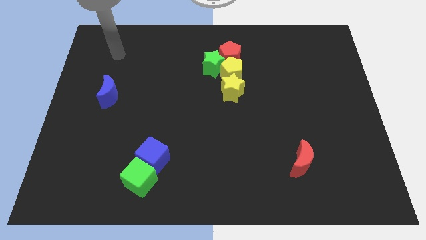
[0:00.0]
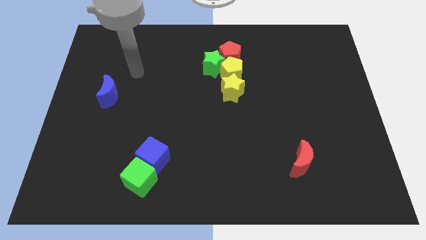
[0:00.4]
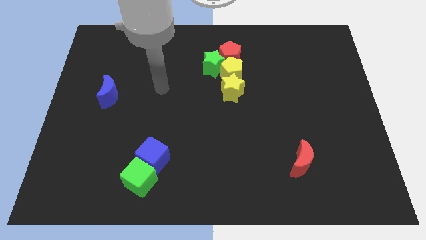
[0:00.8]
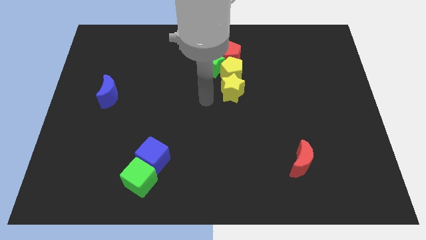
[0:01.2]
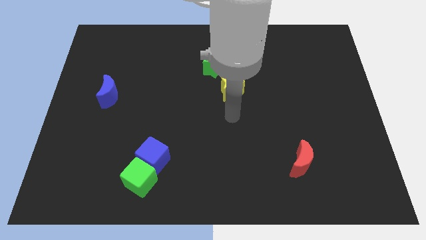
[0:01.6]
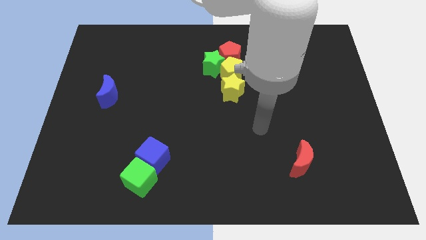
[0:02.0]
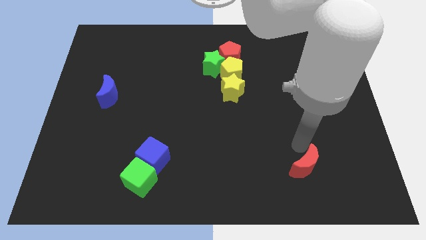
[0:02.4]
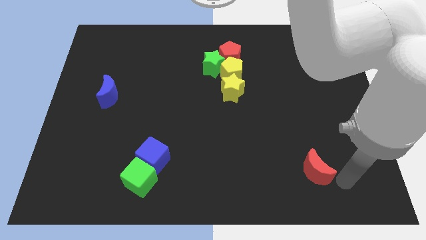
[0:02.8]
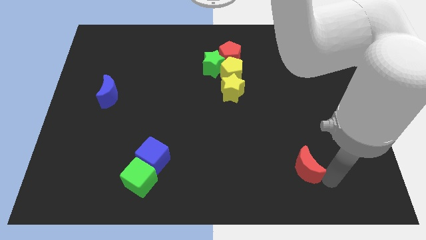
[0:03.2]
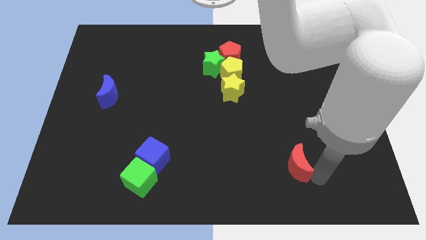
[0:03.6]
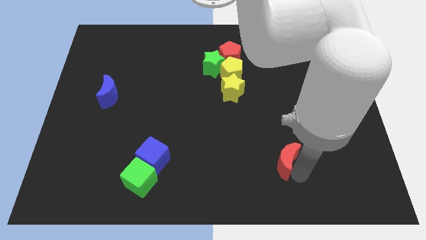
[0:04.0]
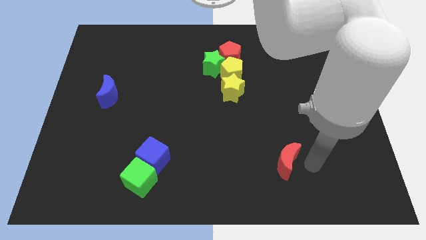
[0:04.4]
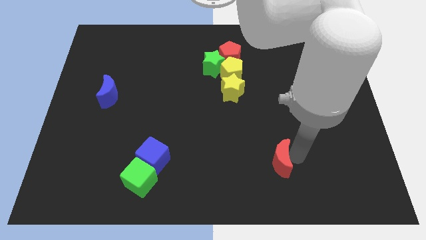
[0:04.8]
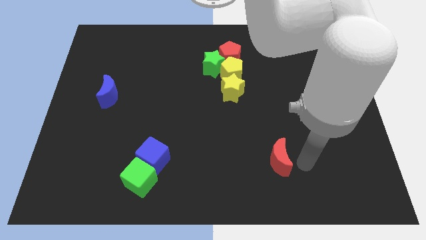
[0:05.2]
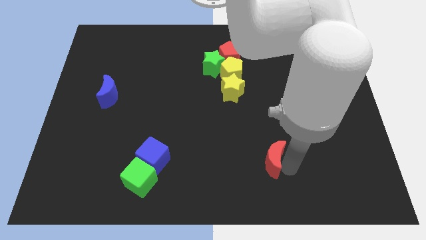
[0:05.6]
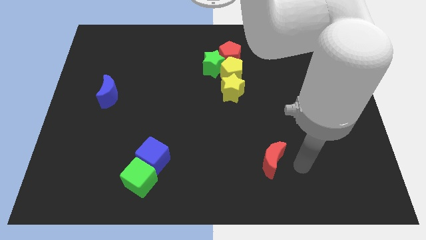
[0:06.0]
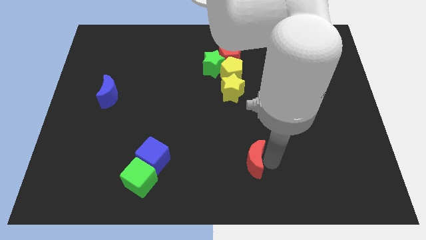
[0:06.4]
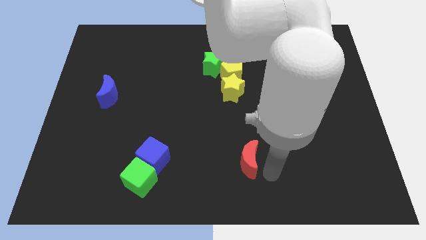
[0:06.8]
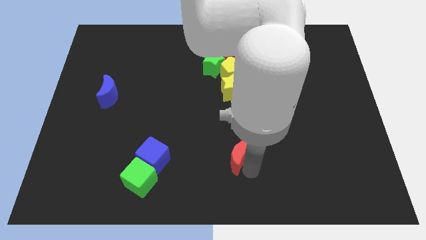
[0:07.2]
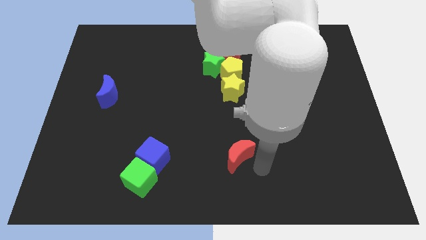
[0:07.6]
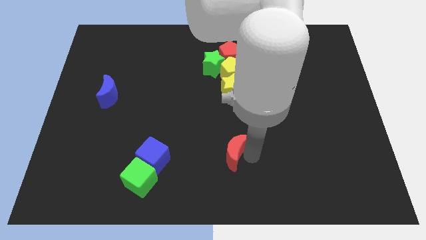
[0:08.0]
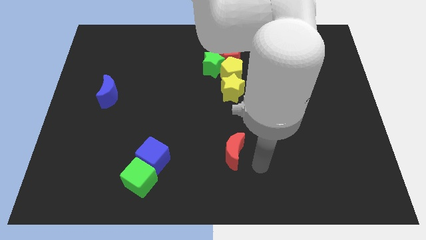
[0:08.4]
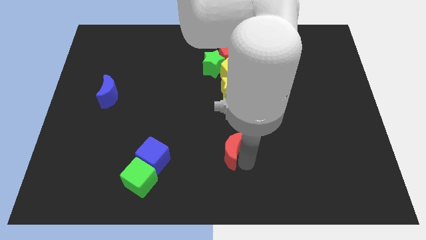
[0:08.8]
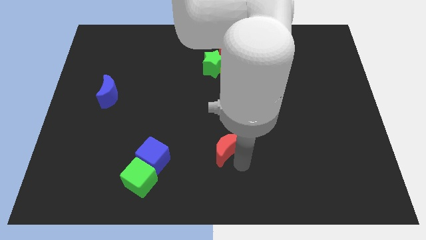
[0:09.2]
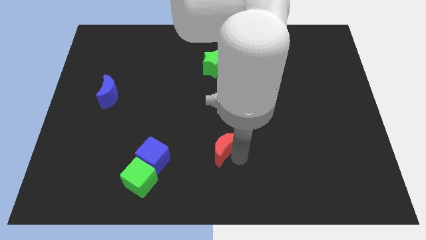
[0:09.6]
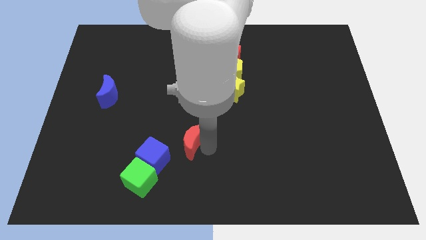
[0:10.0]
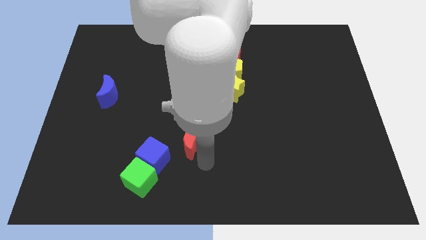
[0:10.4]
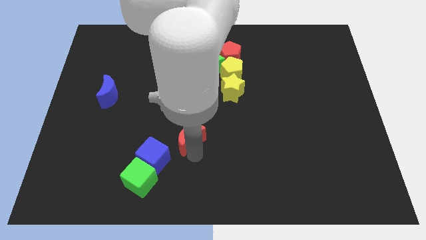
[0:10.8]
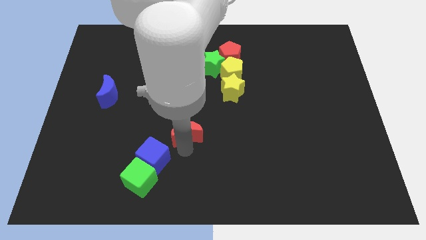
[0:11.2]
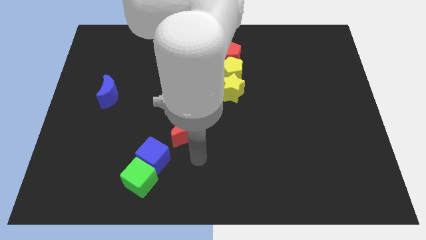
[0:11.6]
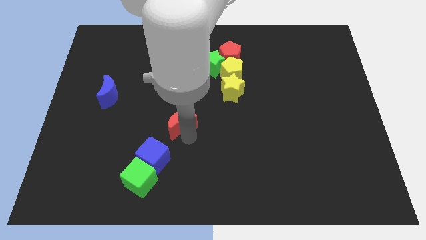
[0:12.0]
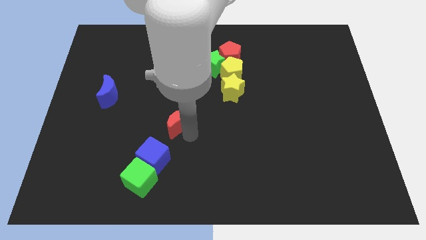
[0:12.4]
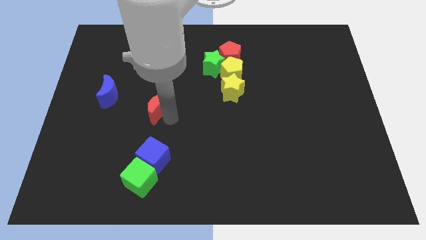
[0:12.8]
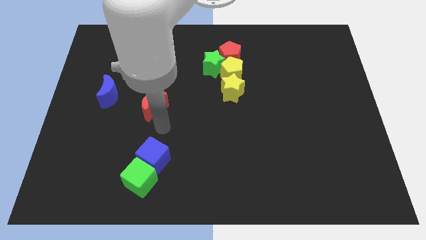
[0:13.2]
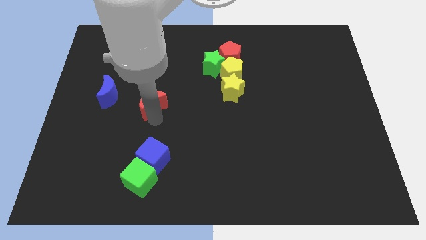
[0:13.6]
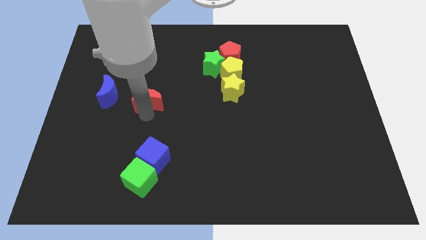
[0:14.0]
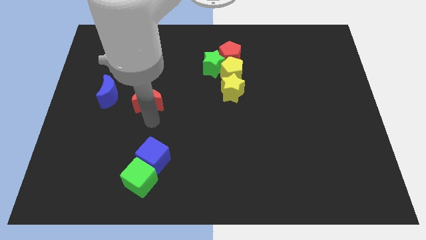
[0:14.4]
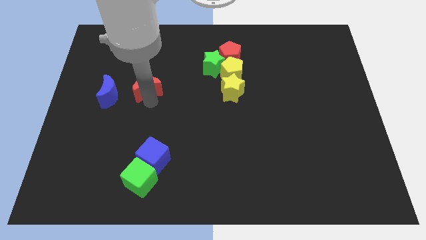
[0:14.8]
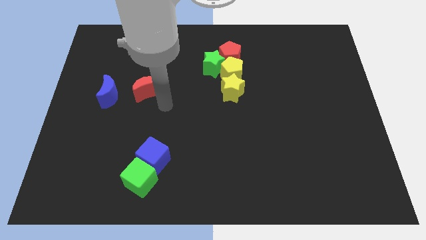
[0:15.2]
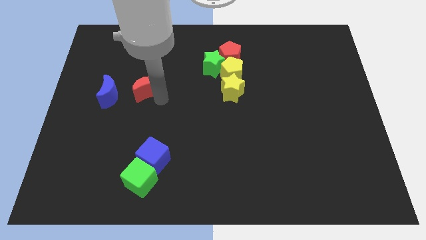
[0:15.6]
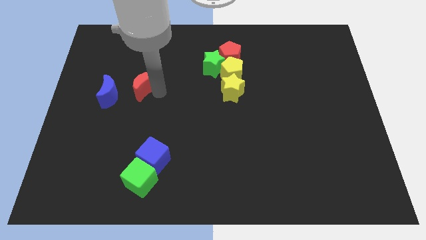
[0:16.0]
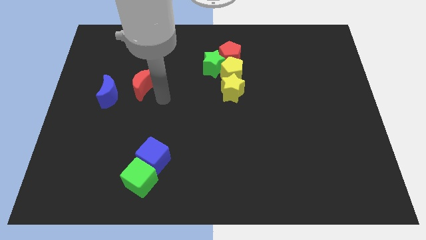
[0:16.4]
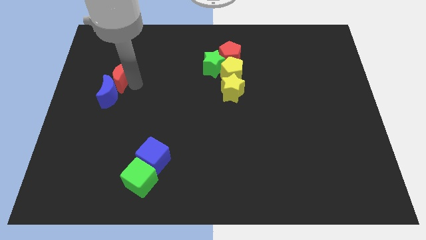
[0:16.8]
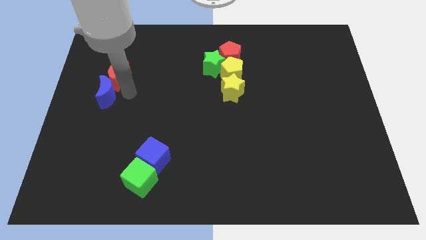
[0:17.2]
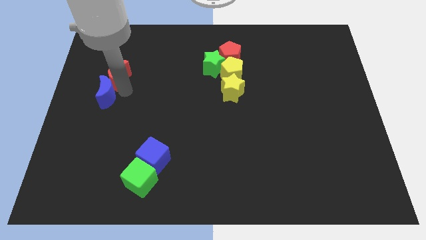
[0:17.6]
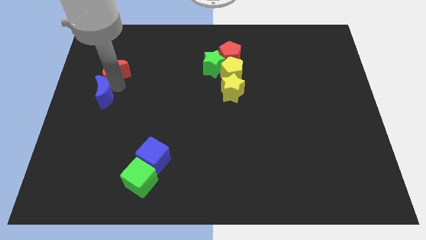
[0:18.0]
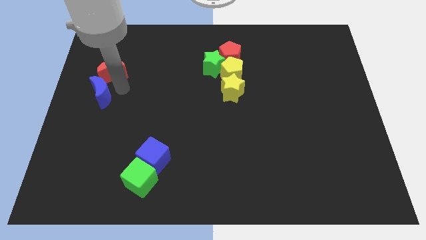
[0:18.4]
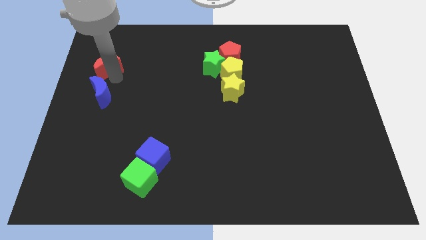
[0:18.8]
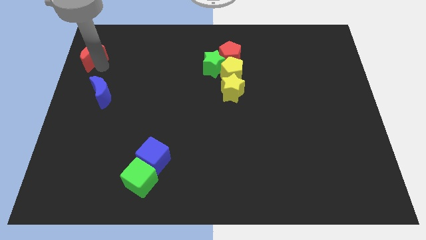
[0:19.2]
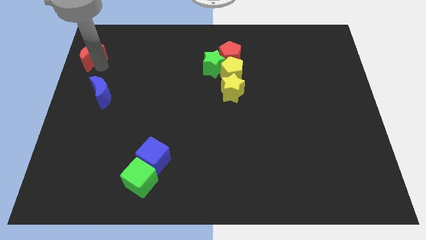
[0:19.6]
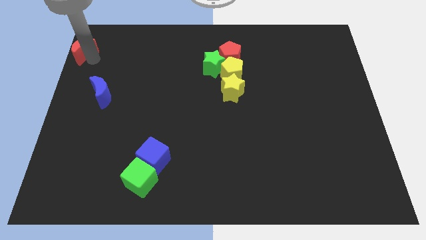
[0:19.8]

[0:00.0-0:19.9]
put the red moon to the top left

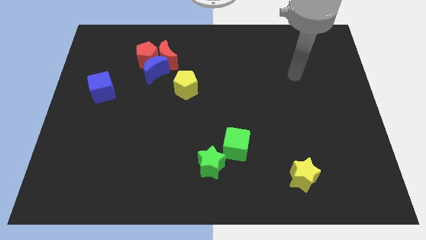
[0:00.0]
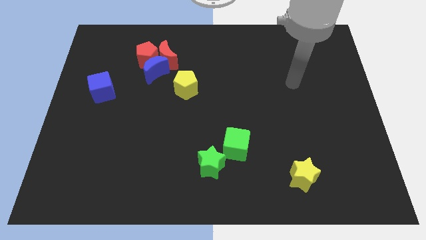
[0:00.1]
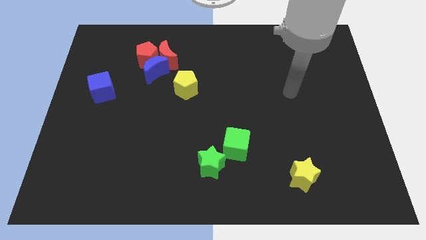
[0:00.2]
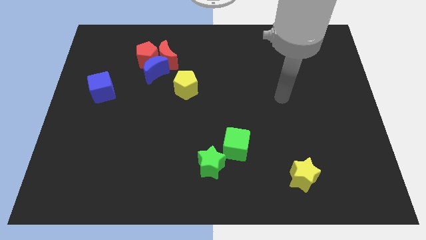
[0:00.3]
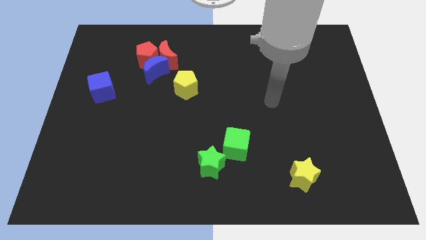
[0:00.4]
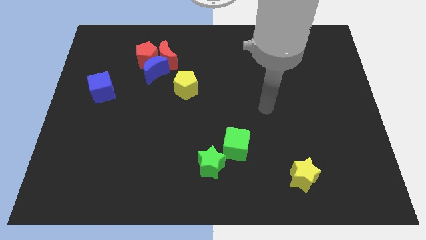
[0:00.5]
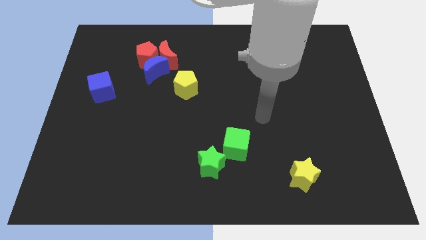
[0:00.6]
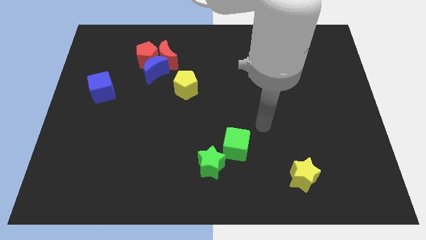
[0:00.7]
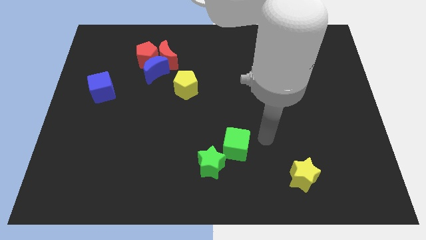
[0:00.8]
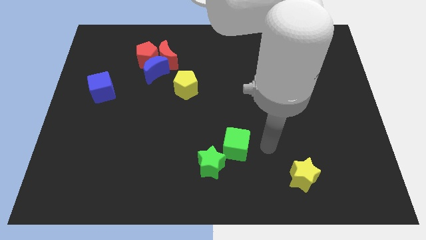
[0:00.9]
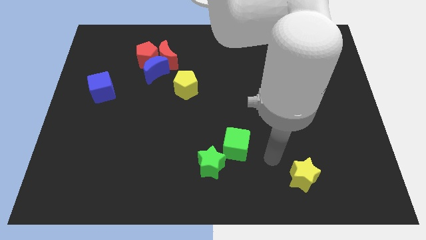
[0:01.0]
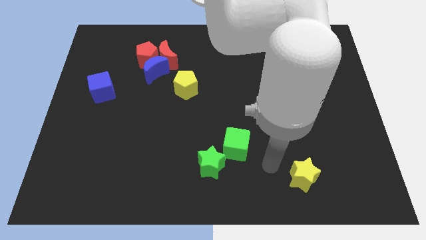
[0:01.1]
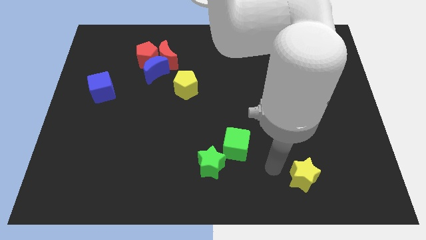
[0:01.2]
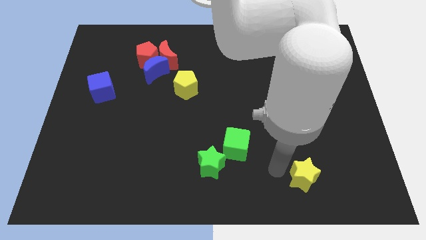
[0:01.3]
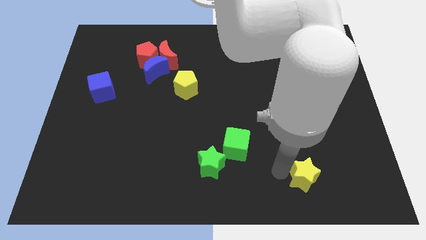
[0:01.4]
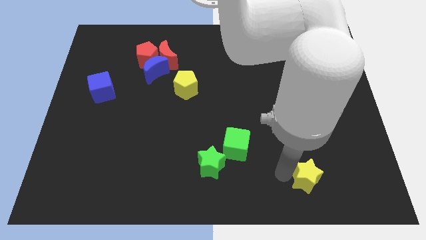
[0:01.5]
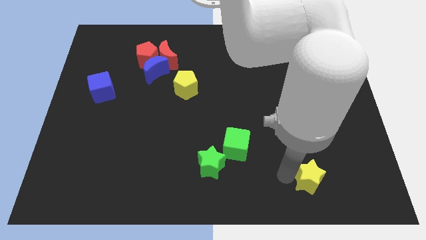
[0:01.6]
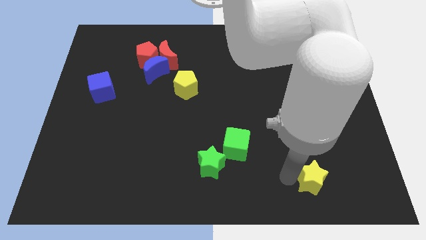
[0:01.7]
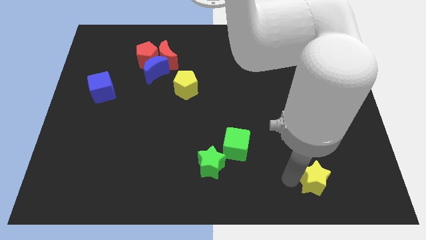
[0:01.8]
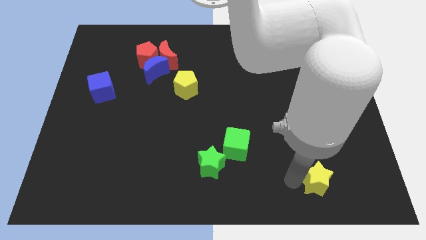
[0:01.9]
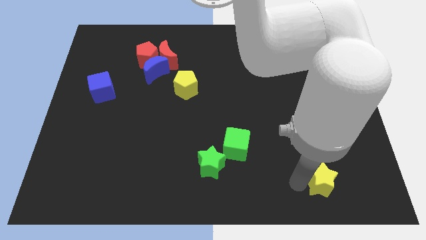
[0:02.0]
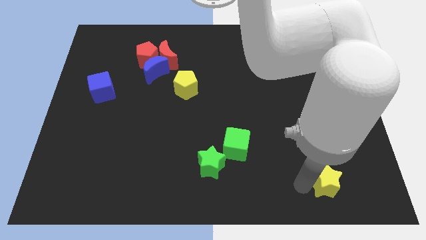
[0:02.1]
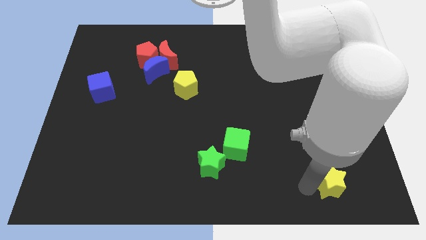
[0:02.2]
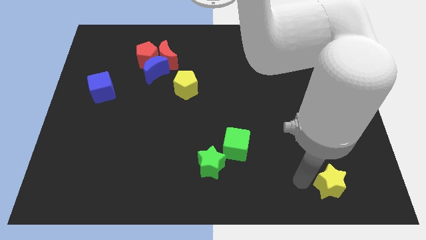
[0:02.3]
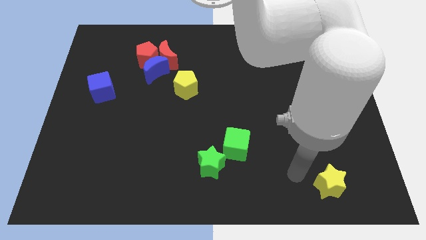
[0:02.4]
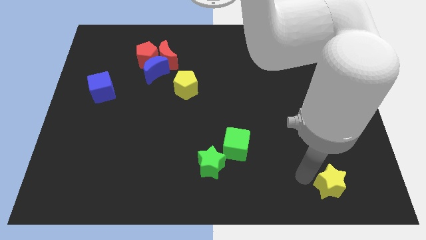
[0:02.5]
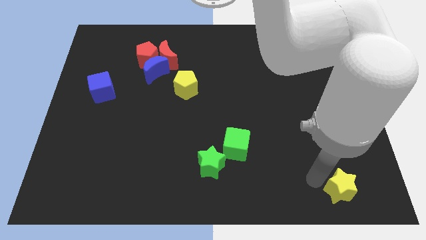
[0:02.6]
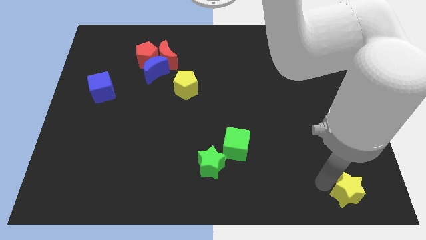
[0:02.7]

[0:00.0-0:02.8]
put the yellow star to the bottom right
